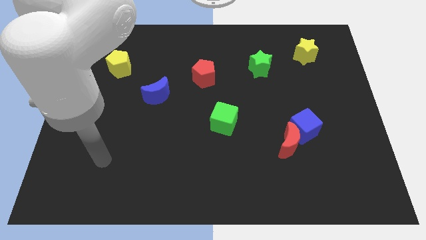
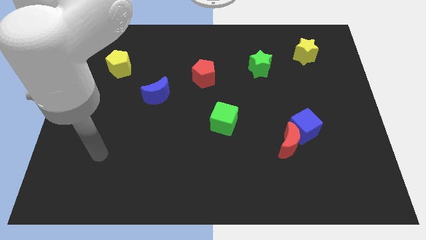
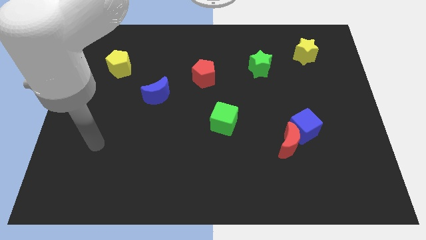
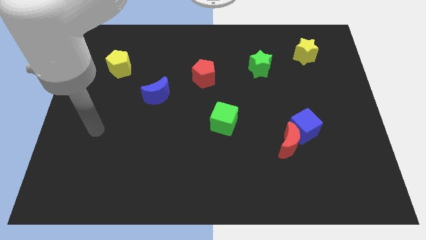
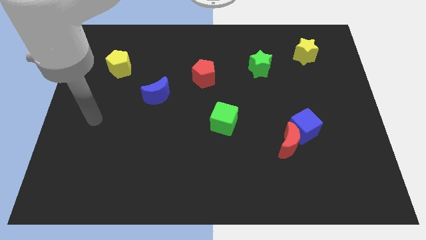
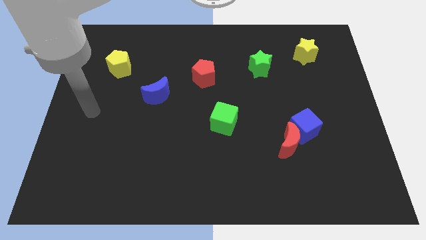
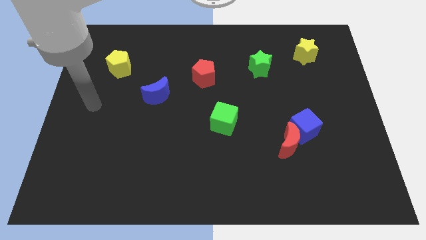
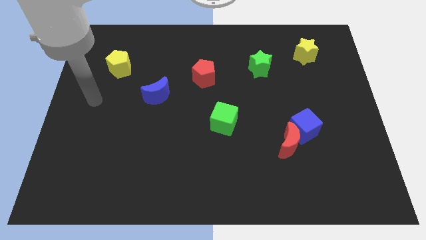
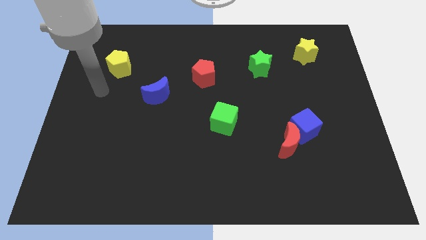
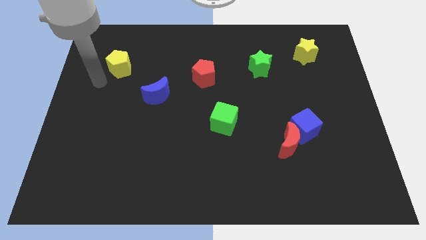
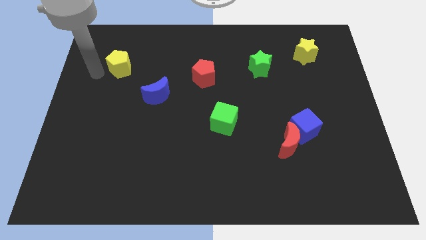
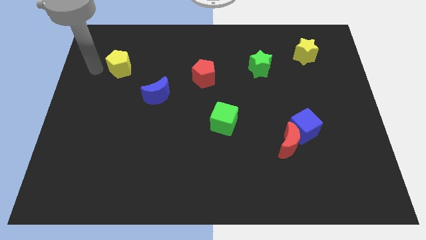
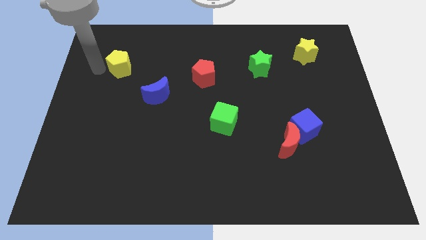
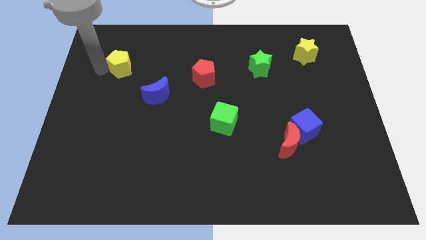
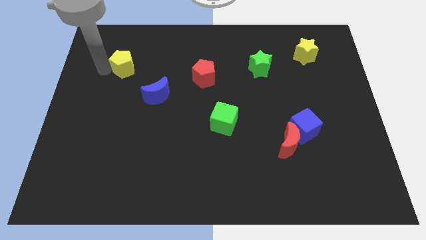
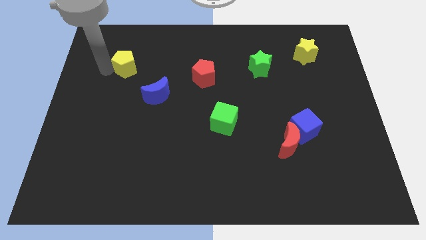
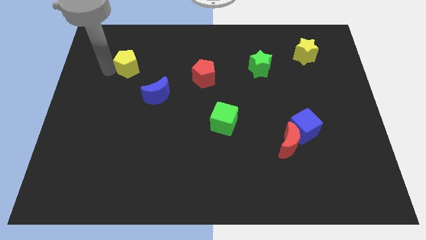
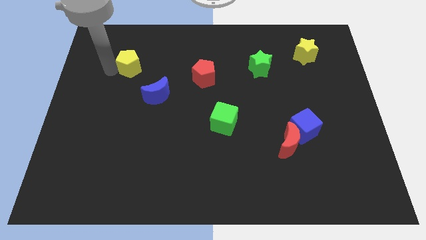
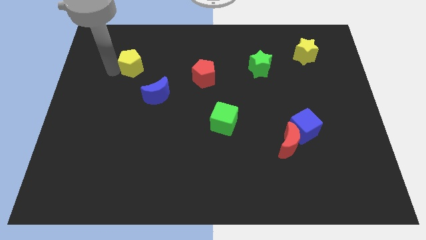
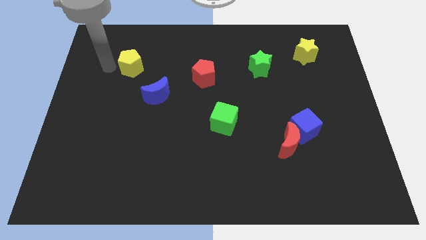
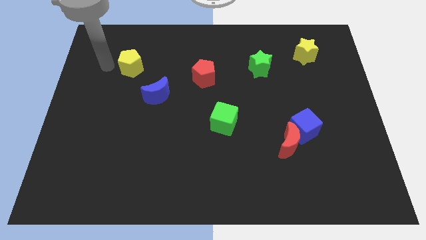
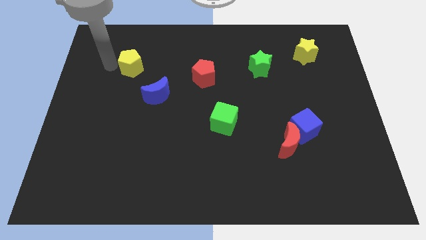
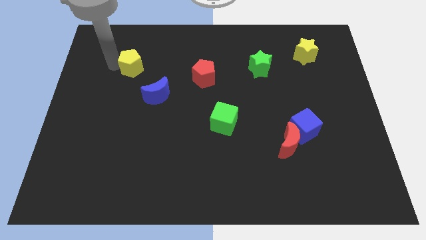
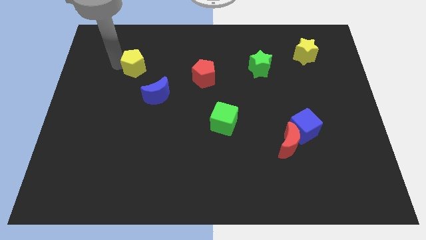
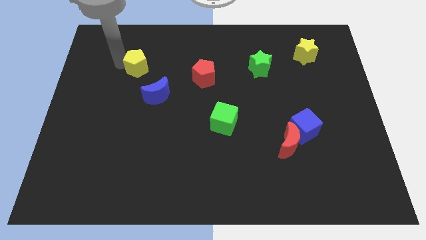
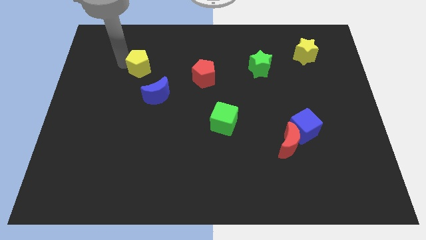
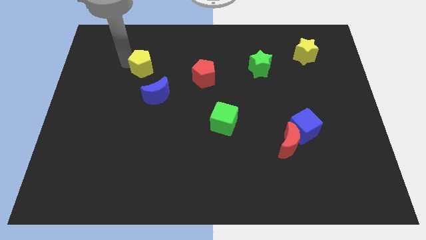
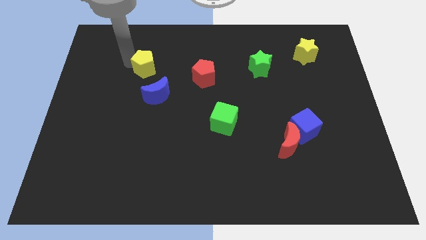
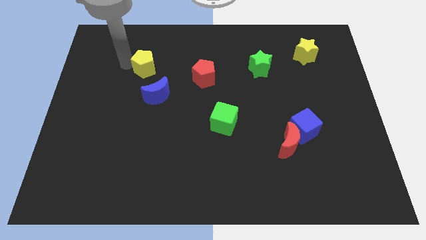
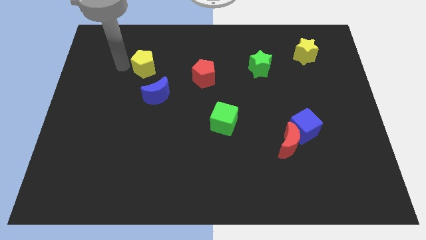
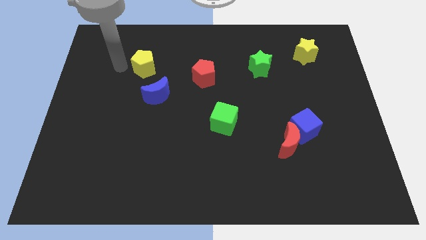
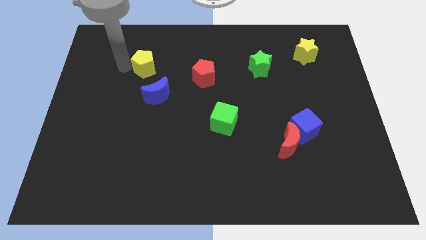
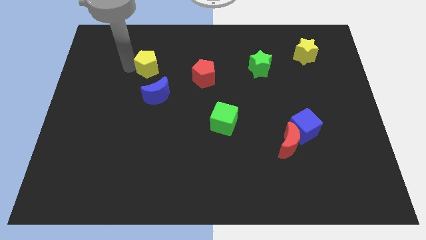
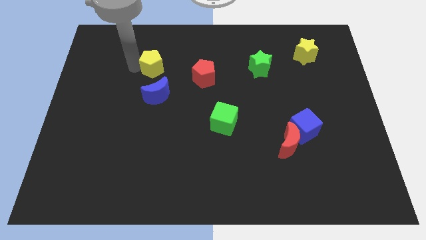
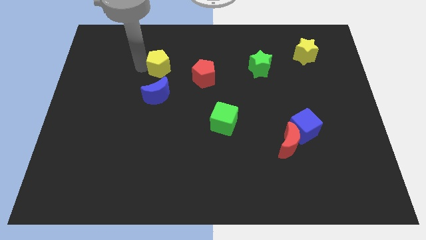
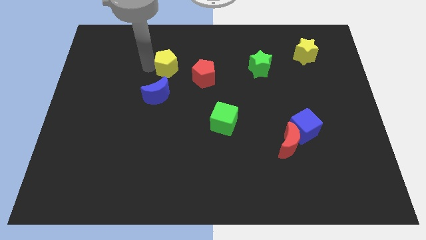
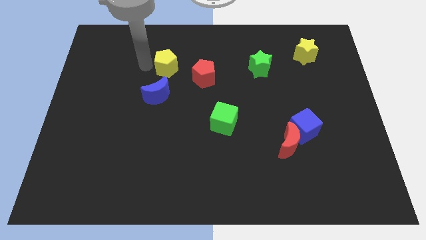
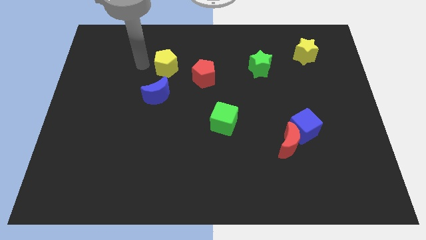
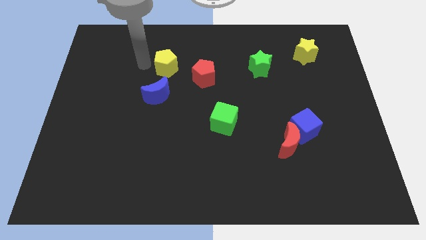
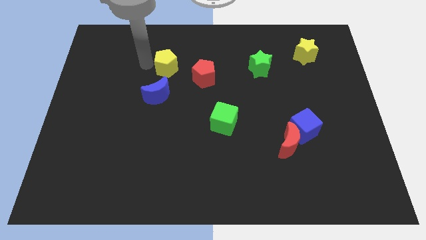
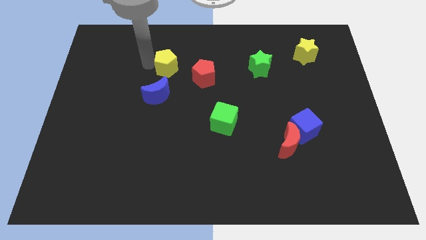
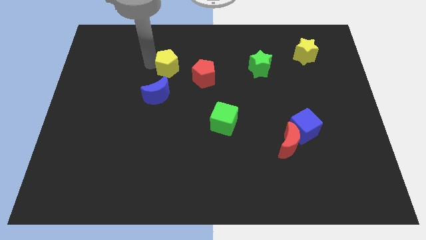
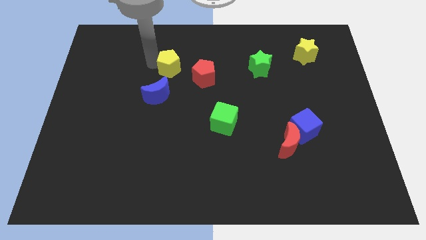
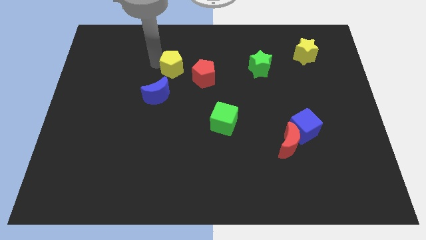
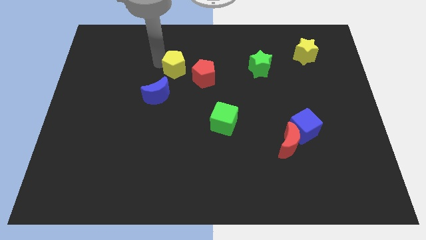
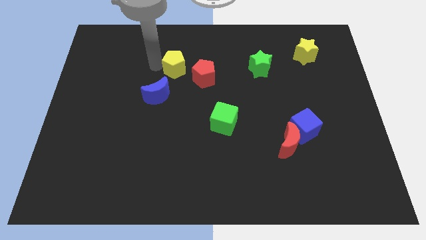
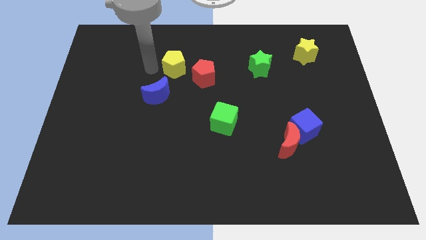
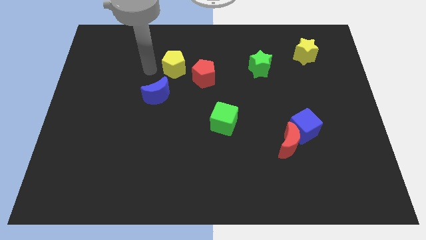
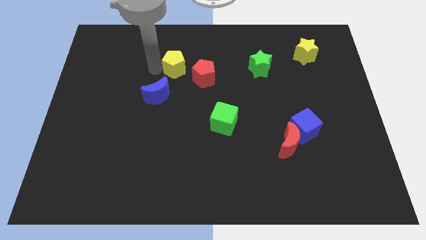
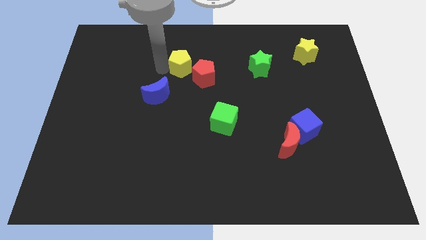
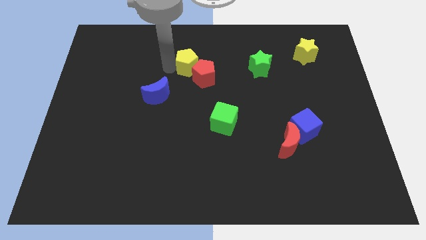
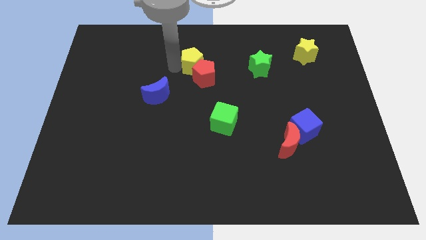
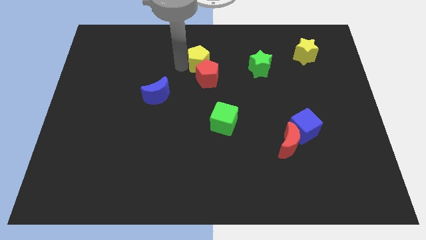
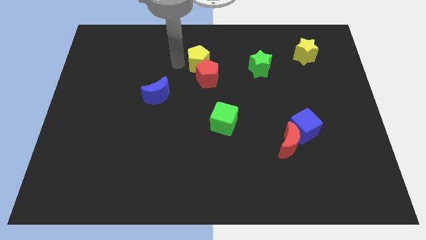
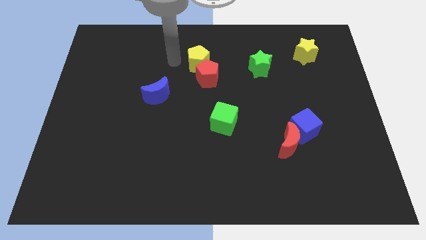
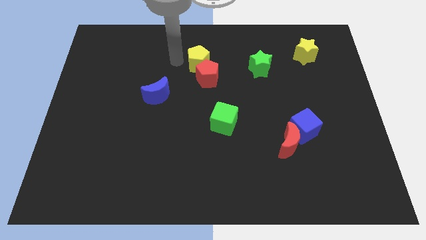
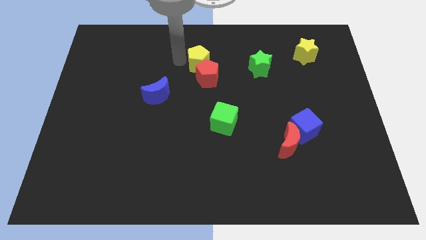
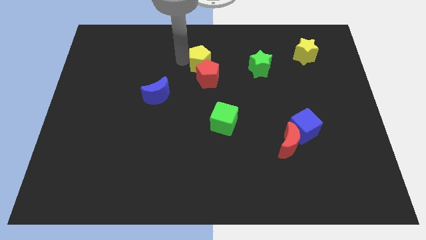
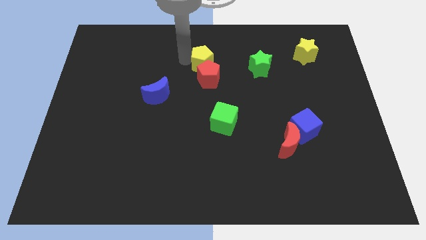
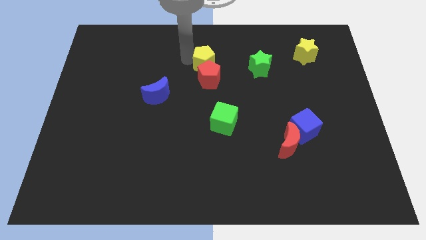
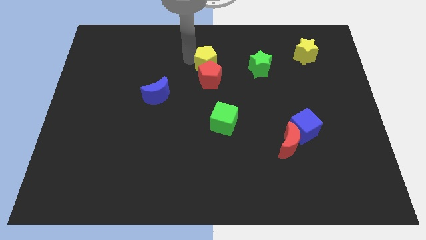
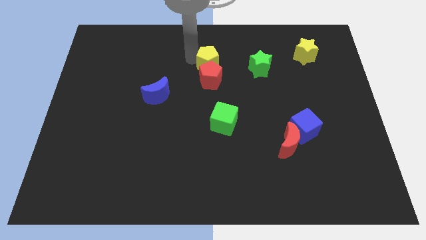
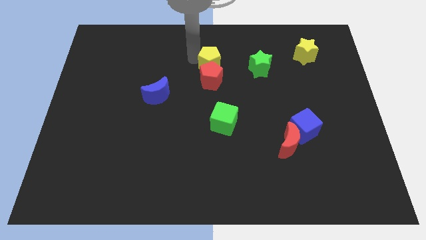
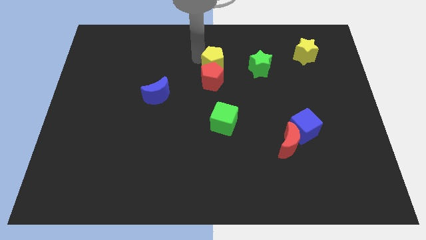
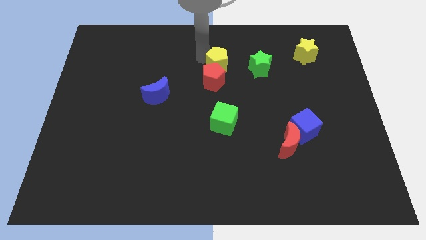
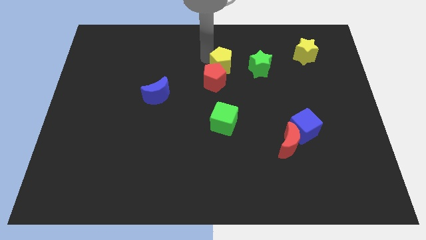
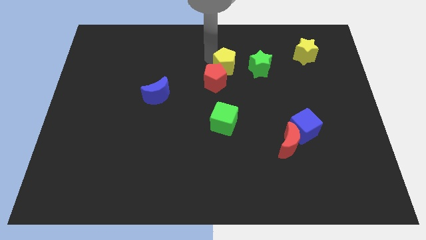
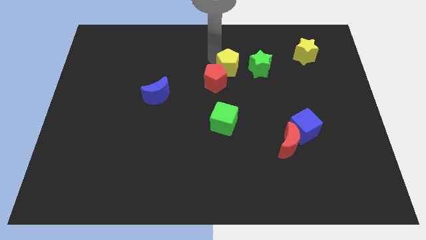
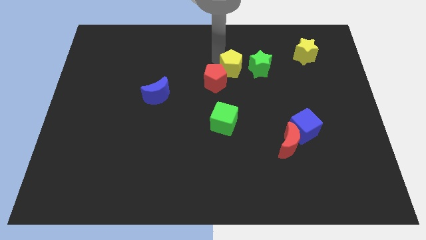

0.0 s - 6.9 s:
move the yellow pentagon just right of the red pentagon

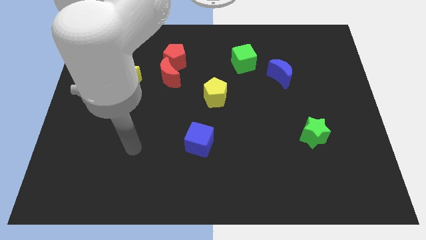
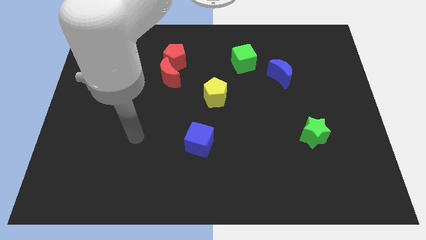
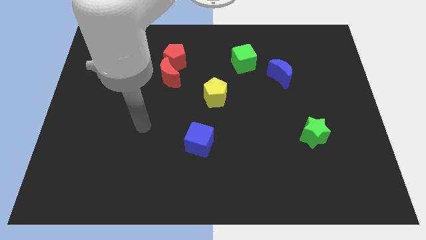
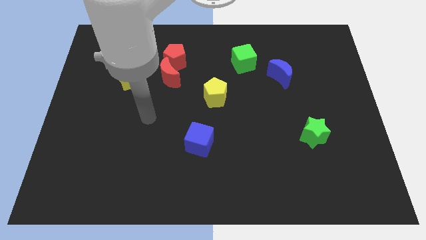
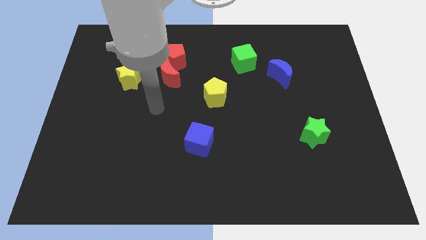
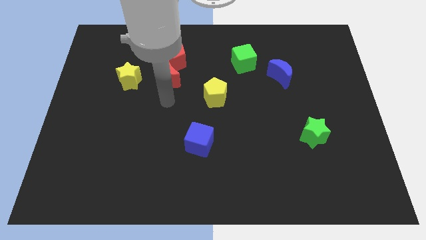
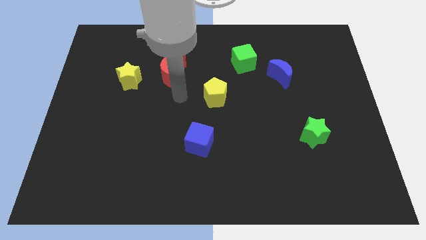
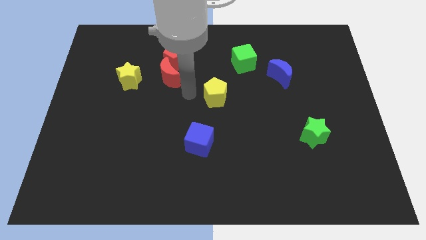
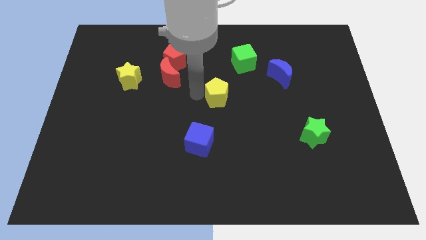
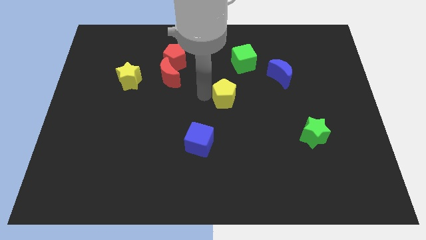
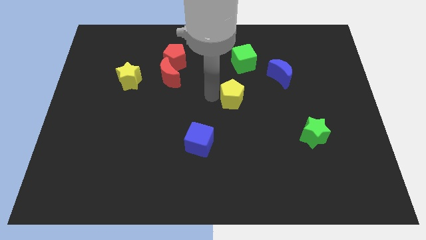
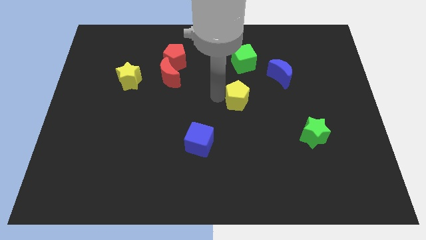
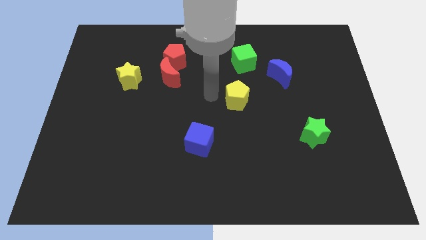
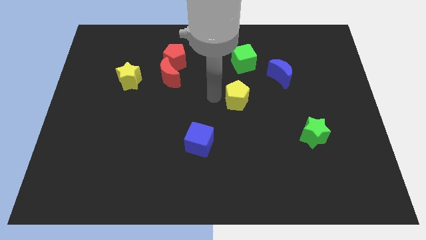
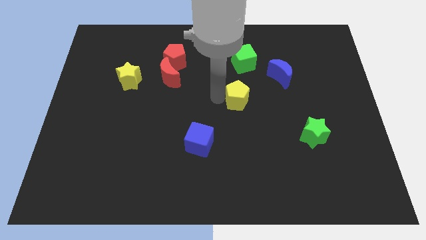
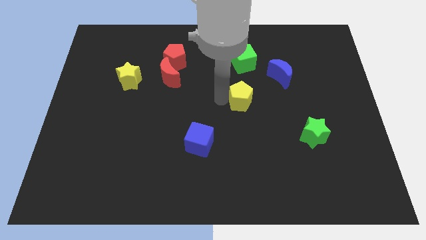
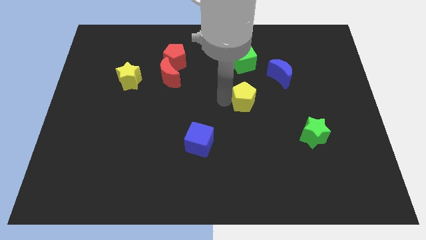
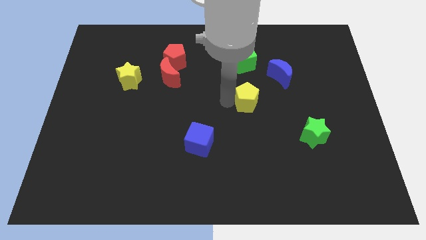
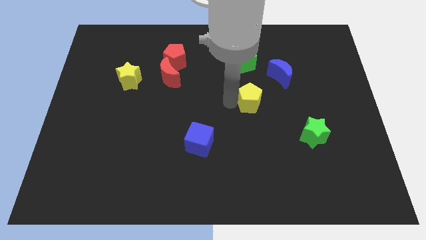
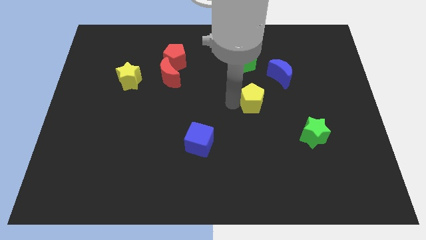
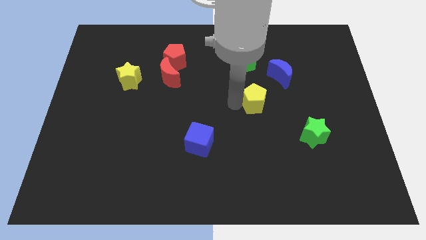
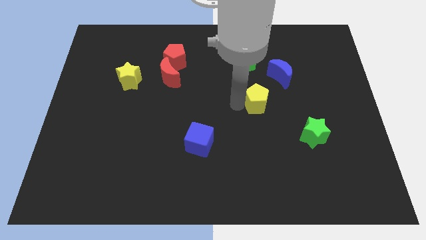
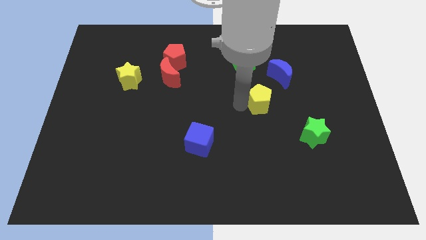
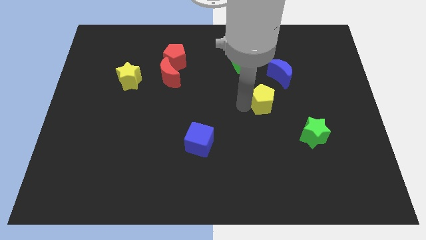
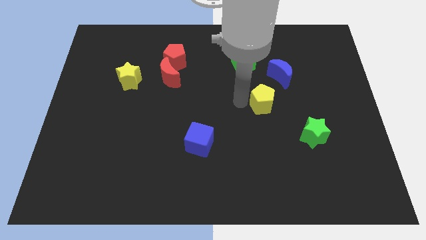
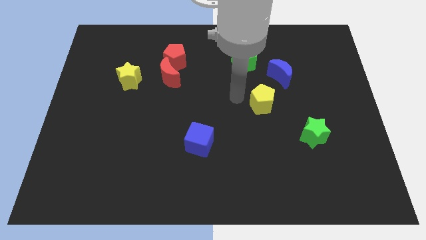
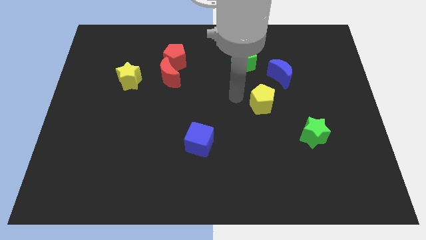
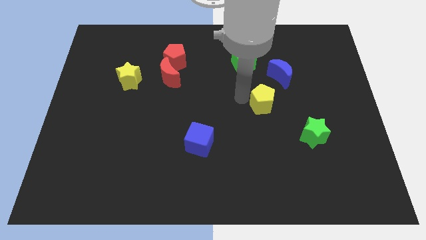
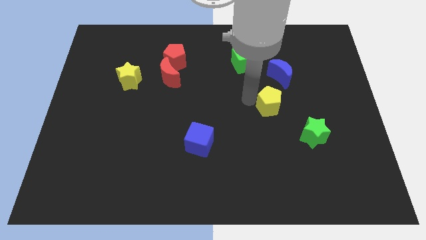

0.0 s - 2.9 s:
move the yellow pentagon to the bottom of the blue moon
